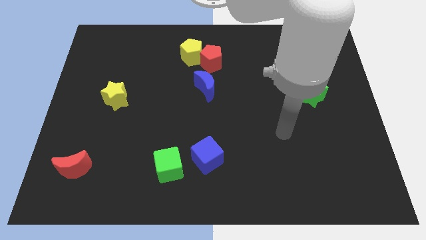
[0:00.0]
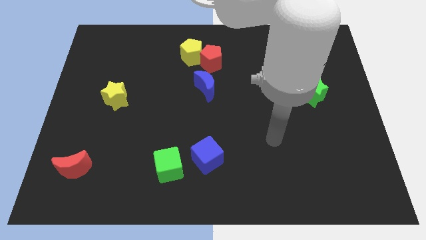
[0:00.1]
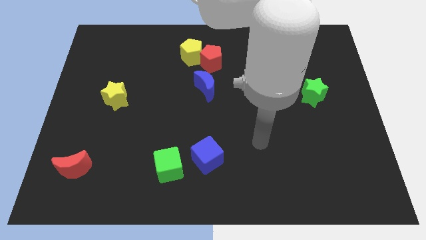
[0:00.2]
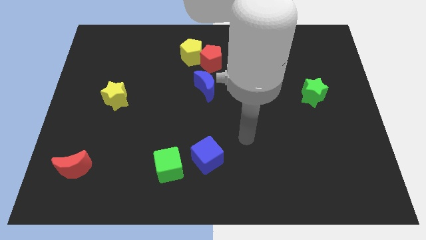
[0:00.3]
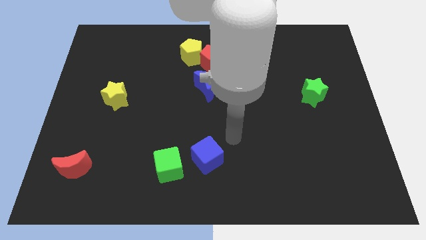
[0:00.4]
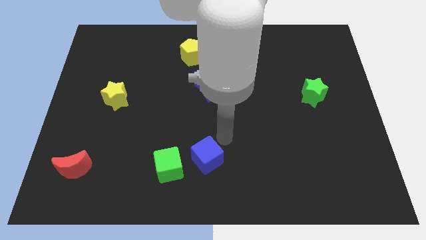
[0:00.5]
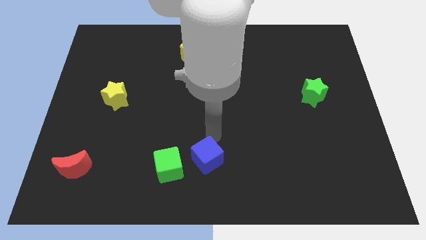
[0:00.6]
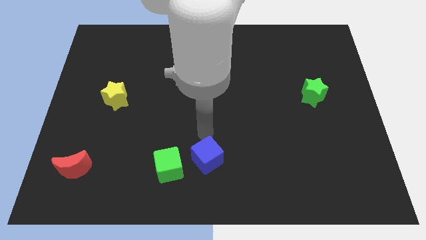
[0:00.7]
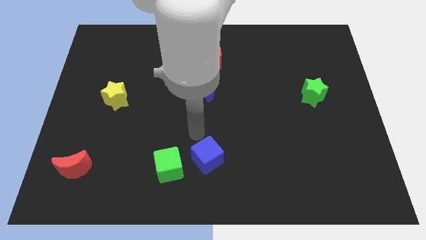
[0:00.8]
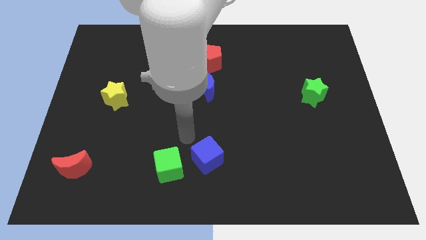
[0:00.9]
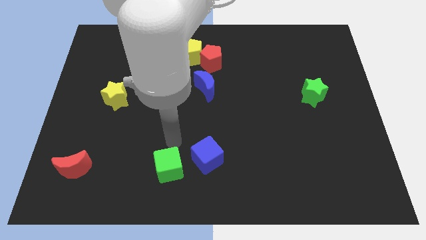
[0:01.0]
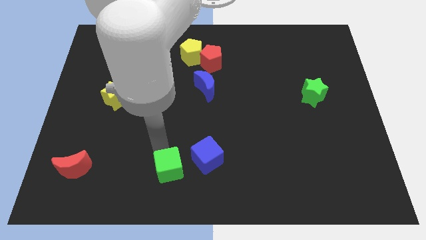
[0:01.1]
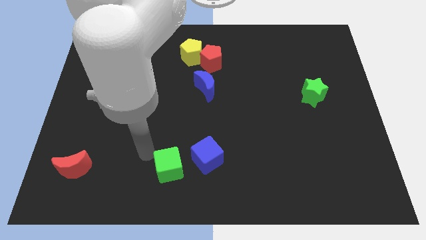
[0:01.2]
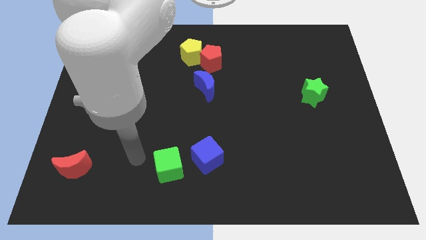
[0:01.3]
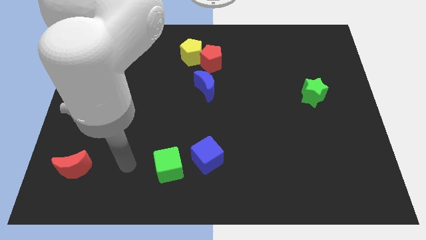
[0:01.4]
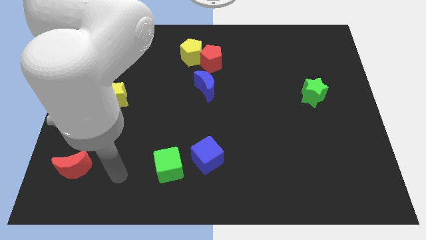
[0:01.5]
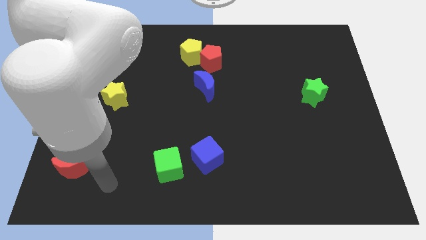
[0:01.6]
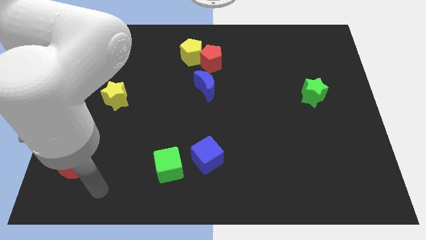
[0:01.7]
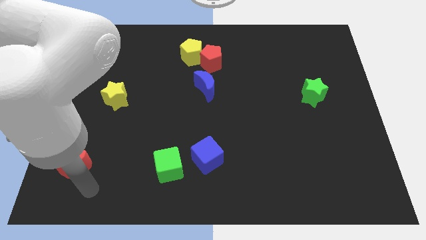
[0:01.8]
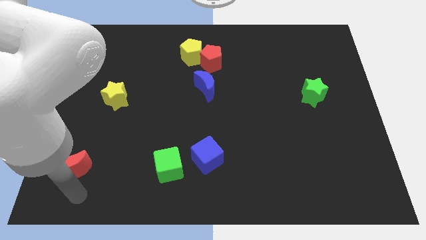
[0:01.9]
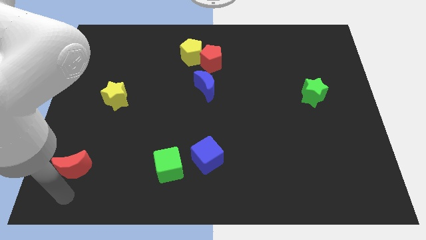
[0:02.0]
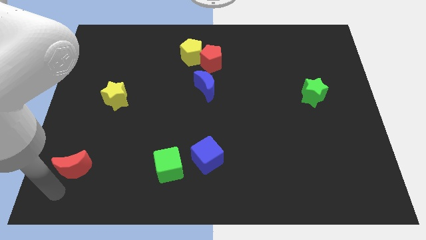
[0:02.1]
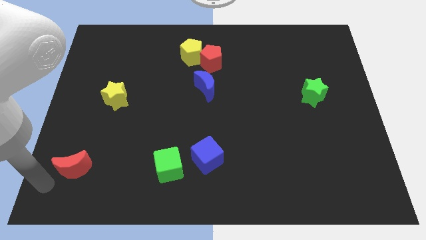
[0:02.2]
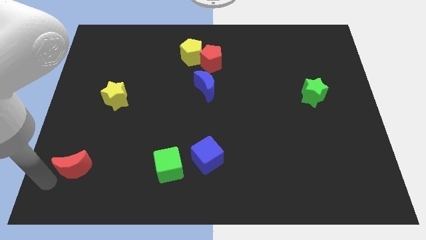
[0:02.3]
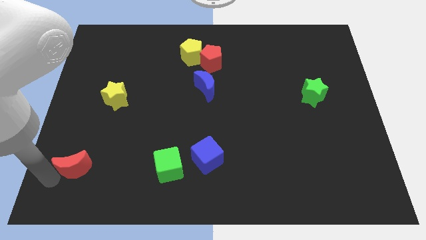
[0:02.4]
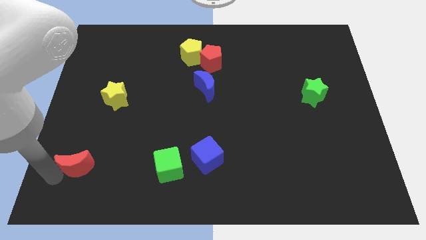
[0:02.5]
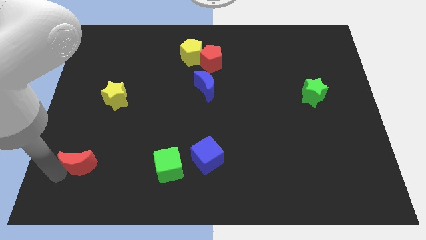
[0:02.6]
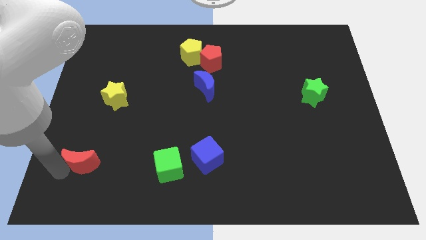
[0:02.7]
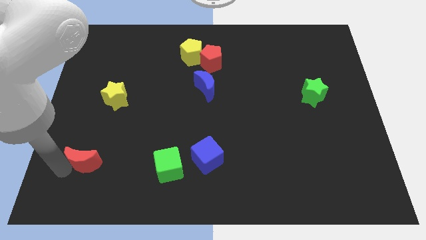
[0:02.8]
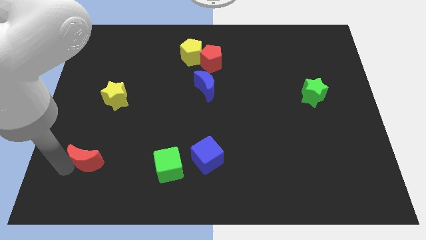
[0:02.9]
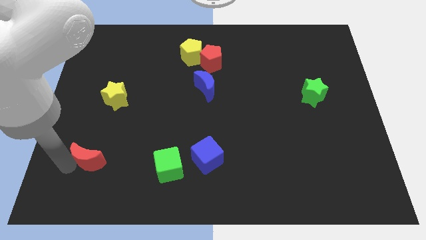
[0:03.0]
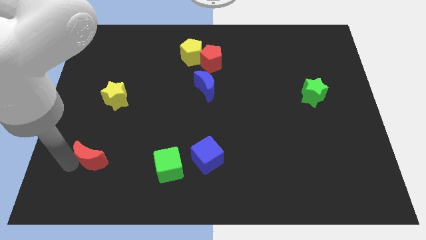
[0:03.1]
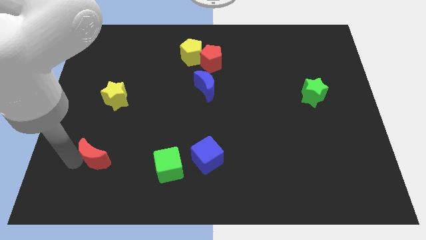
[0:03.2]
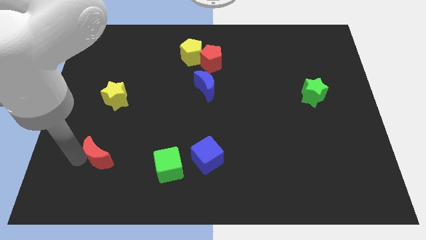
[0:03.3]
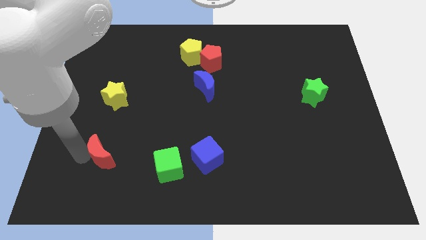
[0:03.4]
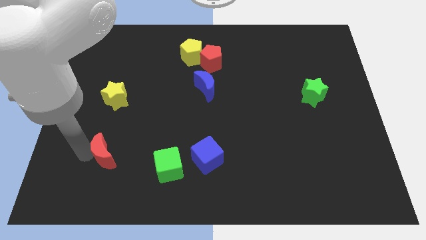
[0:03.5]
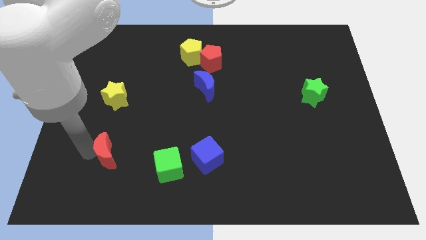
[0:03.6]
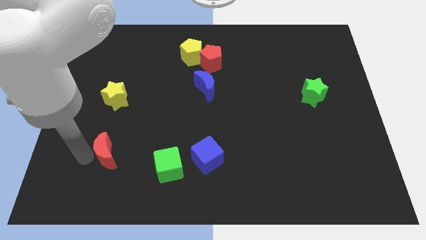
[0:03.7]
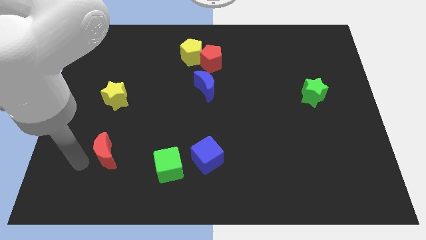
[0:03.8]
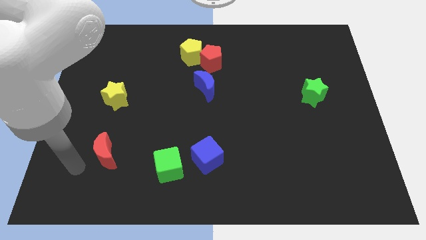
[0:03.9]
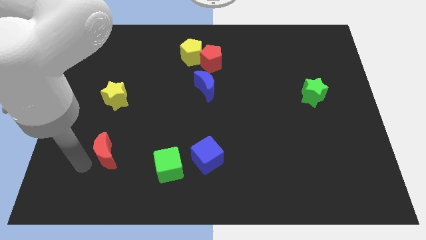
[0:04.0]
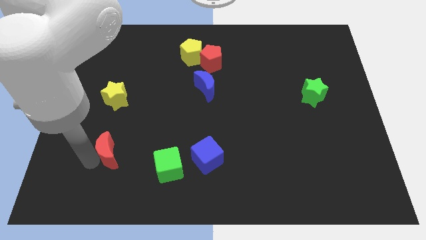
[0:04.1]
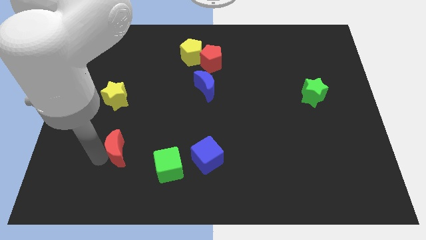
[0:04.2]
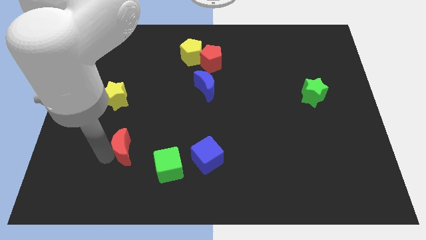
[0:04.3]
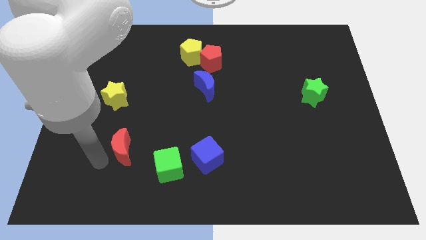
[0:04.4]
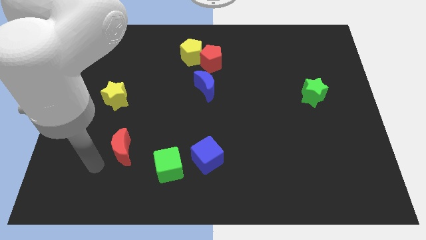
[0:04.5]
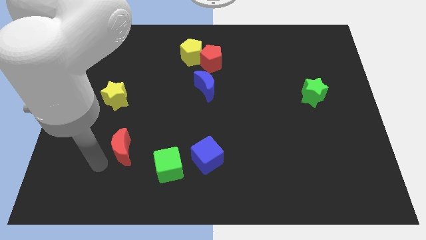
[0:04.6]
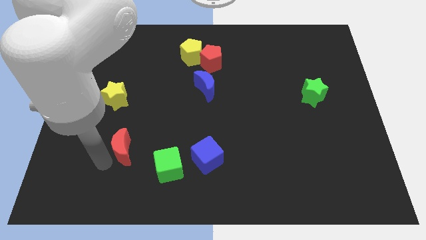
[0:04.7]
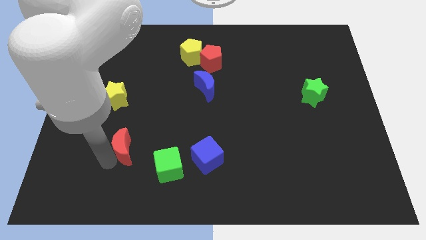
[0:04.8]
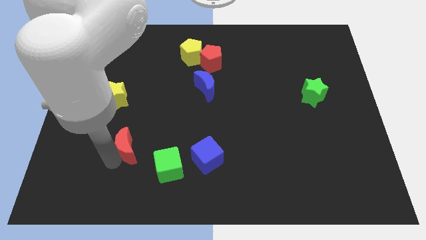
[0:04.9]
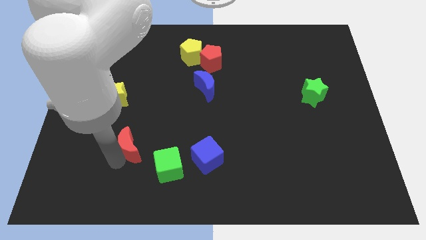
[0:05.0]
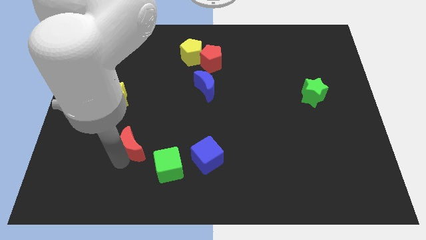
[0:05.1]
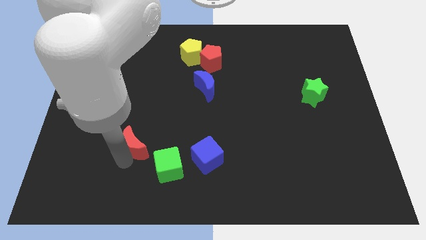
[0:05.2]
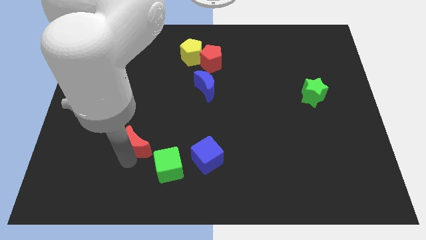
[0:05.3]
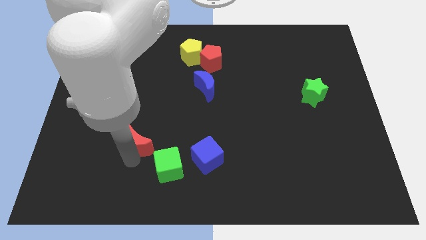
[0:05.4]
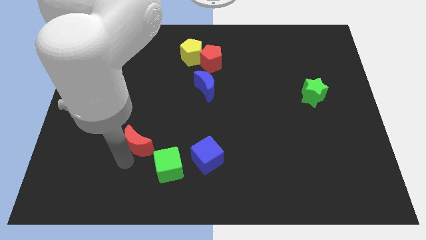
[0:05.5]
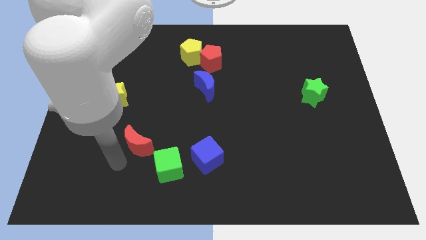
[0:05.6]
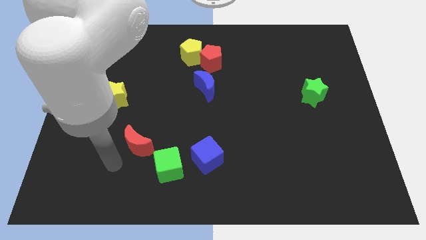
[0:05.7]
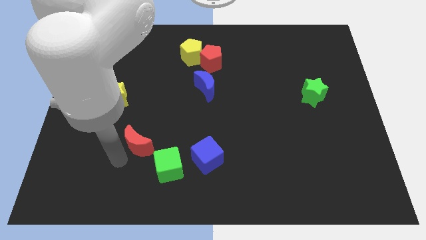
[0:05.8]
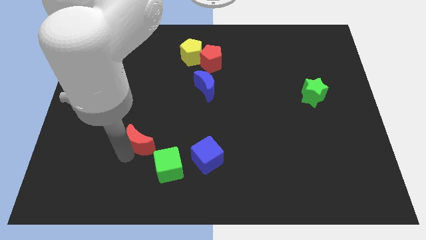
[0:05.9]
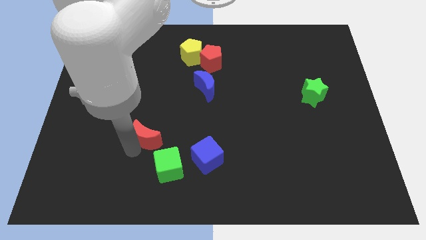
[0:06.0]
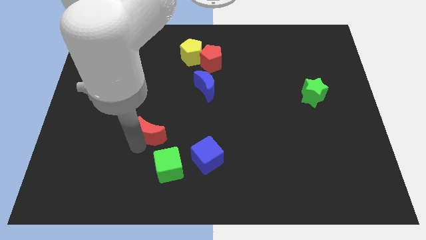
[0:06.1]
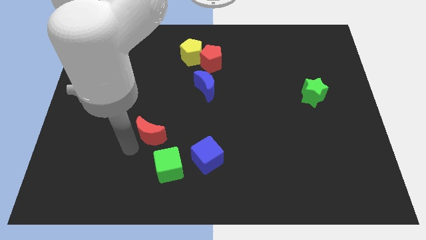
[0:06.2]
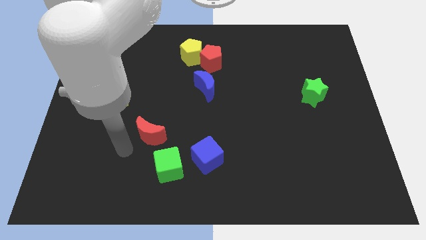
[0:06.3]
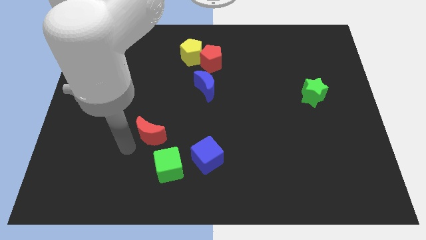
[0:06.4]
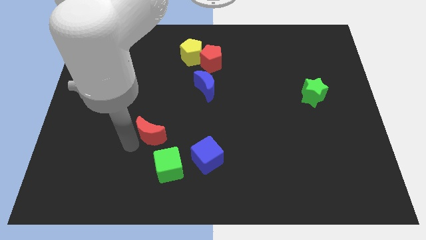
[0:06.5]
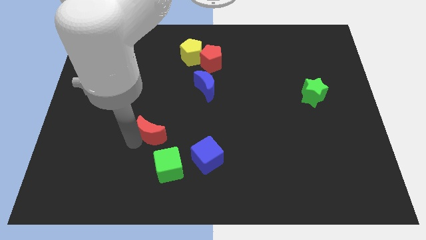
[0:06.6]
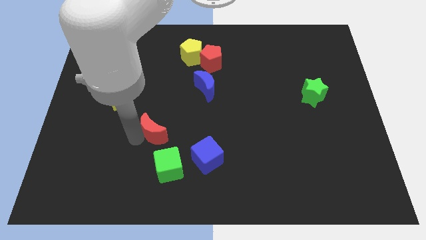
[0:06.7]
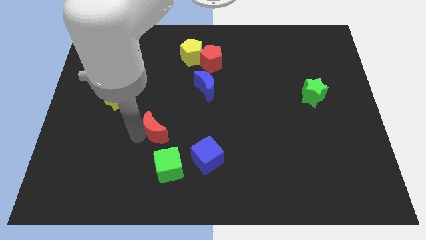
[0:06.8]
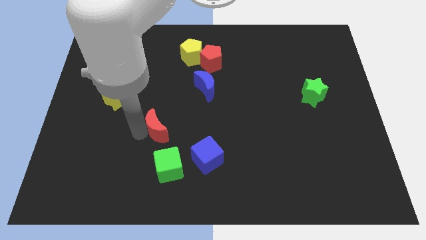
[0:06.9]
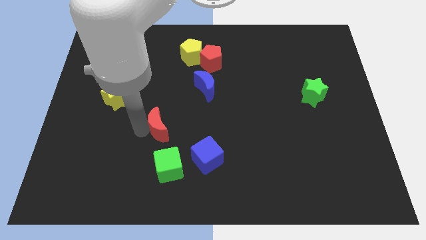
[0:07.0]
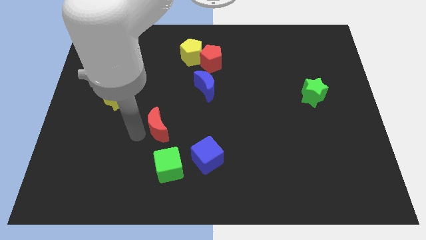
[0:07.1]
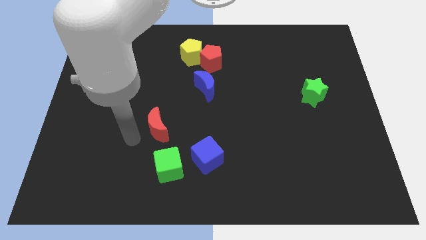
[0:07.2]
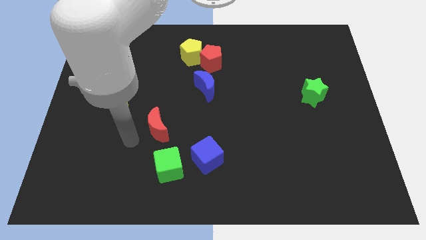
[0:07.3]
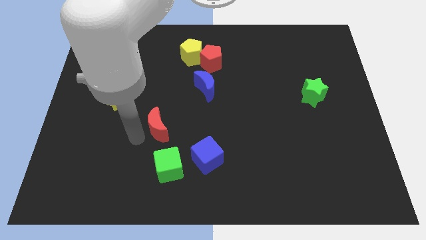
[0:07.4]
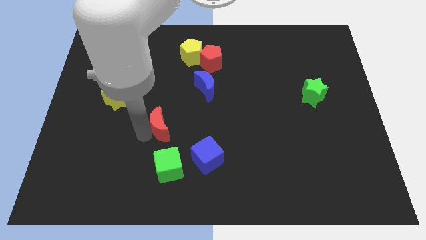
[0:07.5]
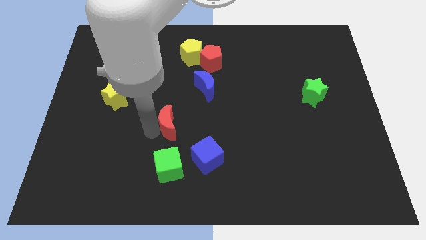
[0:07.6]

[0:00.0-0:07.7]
slide the red moon to the middle
